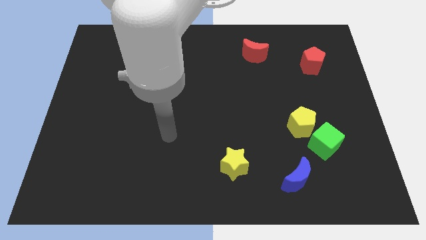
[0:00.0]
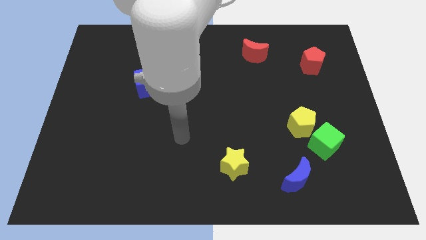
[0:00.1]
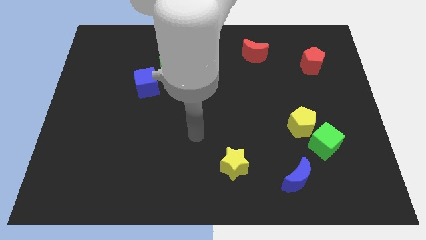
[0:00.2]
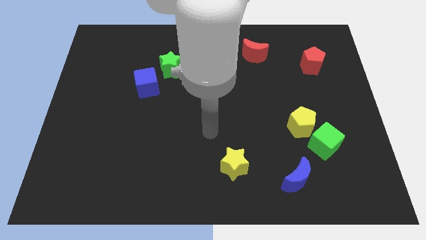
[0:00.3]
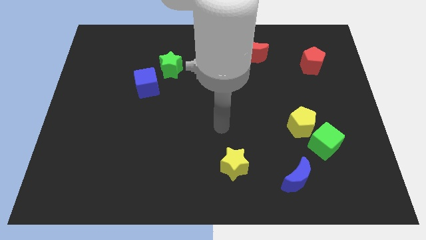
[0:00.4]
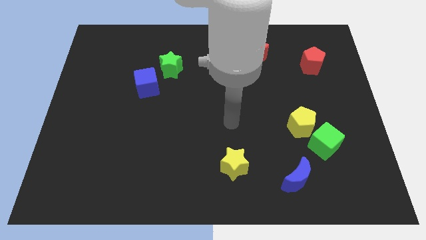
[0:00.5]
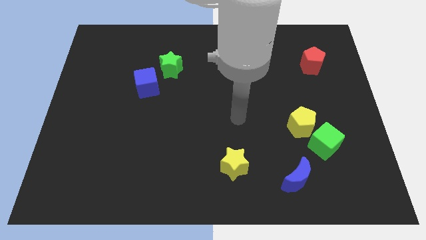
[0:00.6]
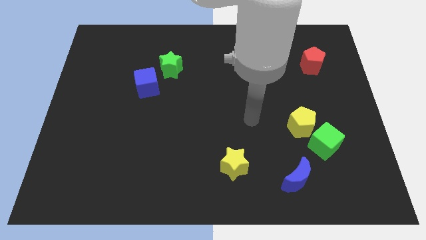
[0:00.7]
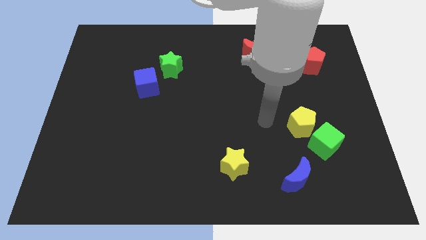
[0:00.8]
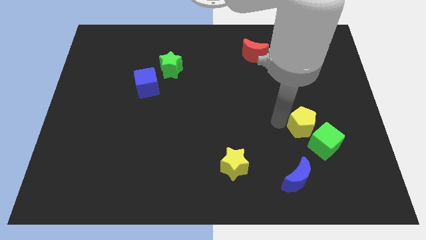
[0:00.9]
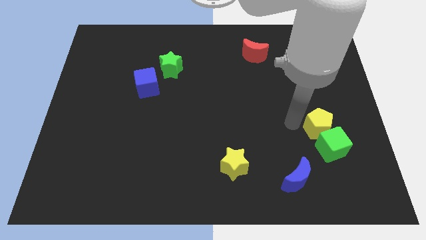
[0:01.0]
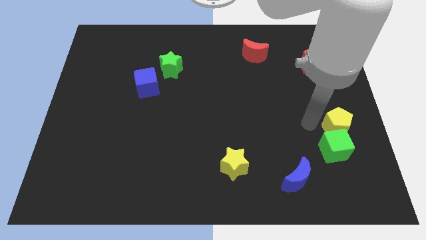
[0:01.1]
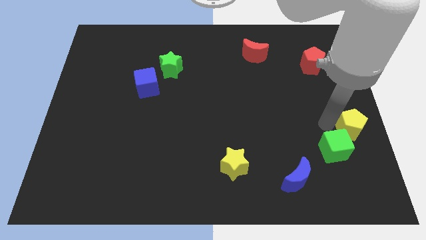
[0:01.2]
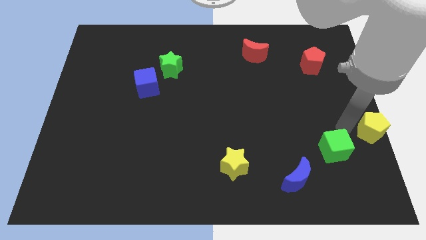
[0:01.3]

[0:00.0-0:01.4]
pull the green cube apart from the yellow pentagon

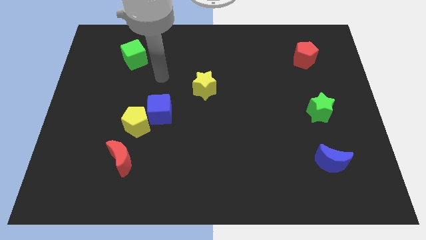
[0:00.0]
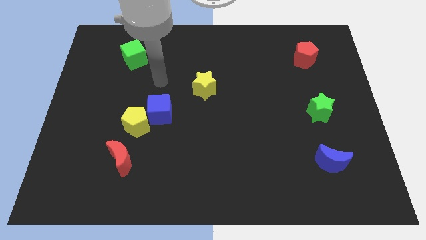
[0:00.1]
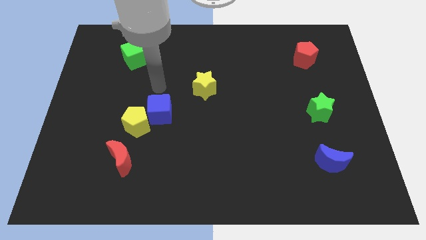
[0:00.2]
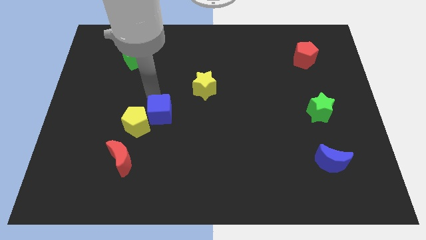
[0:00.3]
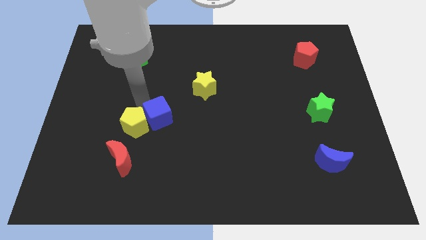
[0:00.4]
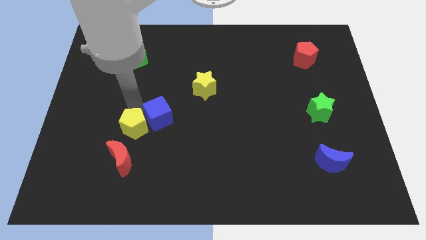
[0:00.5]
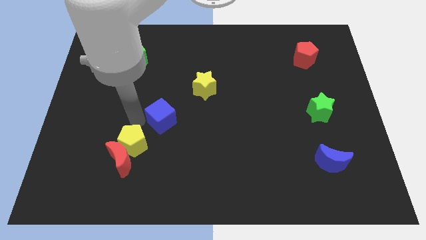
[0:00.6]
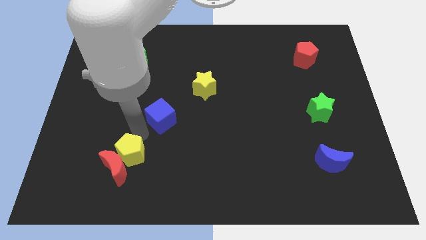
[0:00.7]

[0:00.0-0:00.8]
pull the blue cube apart from the yellow pentagon

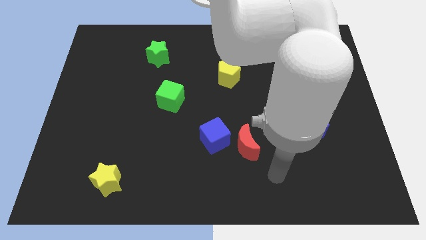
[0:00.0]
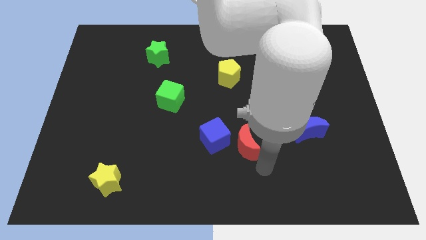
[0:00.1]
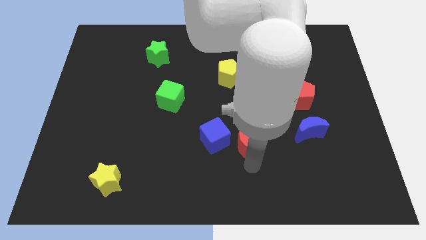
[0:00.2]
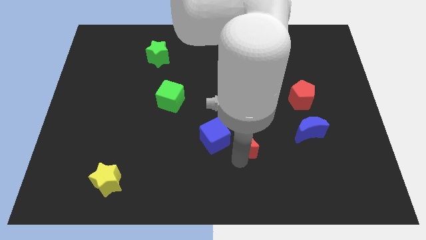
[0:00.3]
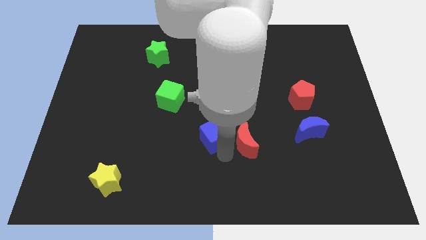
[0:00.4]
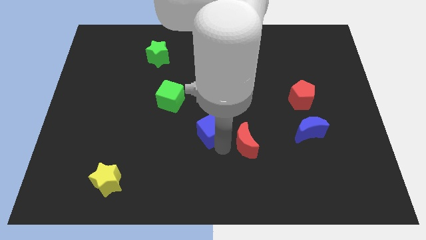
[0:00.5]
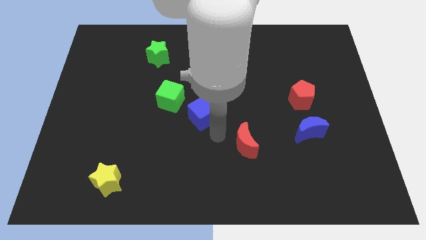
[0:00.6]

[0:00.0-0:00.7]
separate the red moon from the blue cube

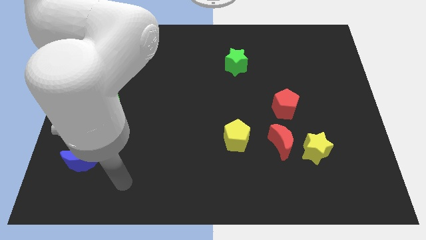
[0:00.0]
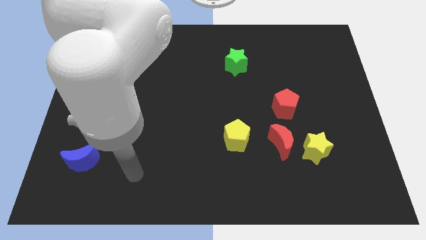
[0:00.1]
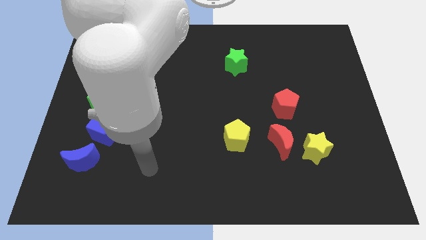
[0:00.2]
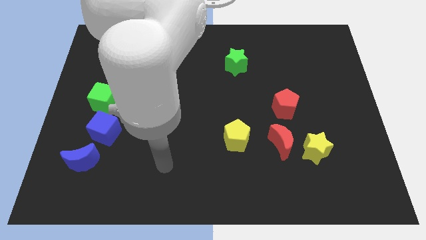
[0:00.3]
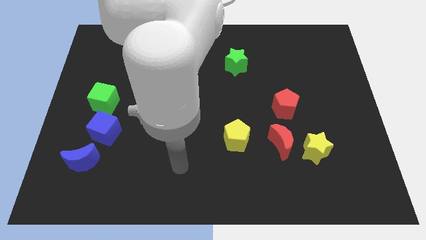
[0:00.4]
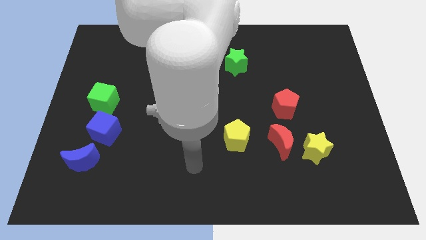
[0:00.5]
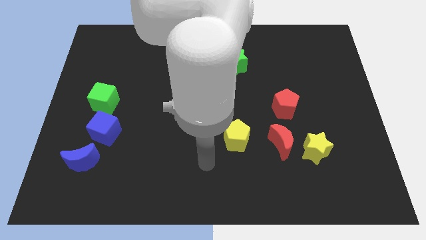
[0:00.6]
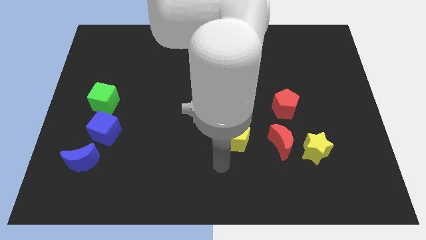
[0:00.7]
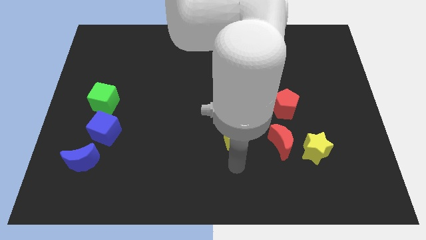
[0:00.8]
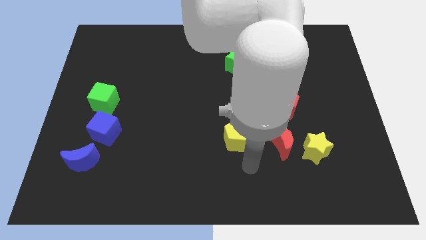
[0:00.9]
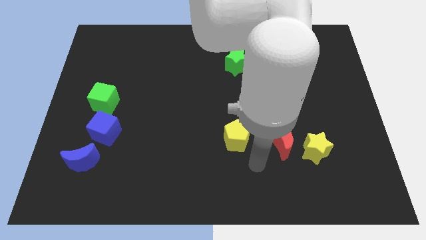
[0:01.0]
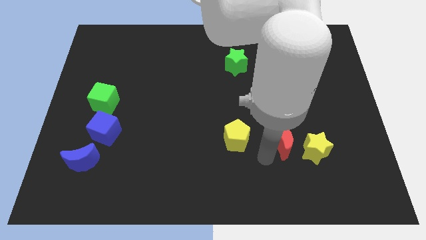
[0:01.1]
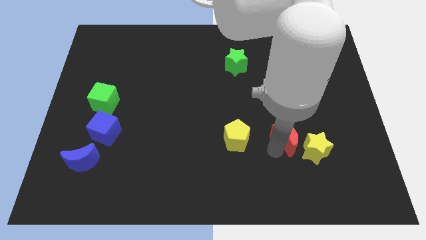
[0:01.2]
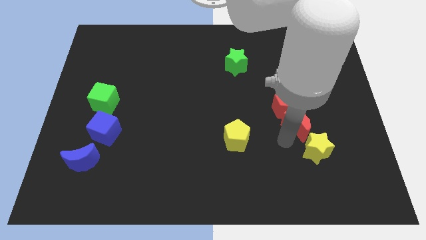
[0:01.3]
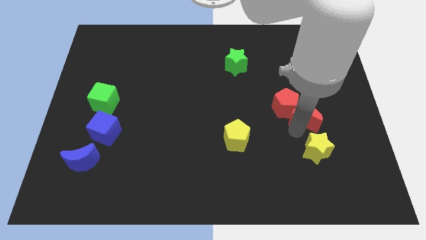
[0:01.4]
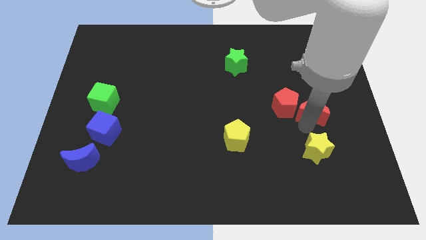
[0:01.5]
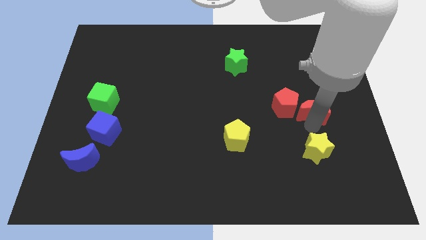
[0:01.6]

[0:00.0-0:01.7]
move the yellow star away from the red moon

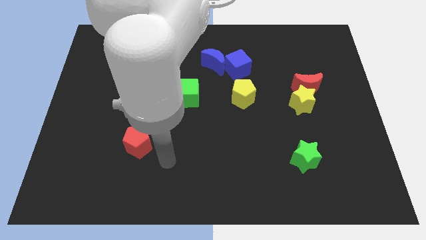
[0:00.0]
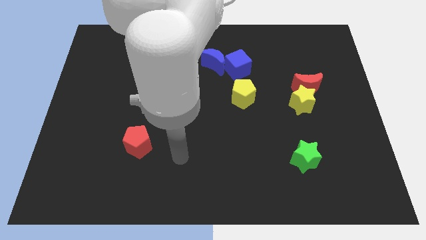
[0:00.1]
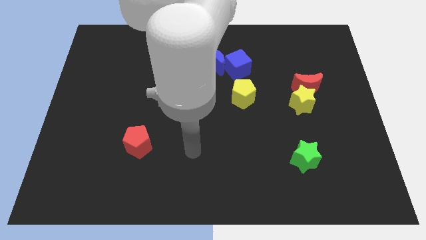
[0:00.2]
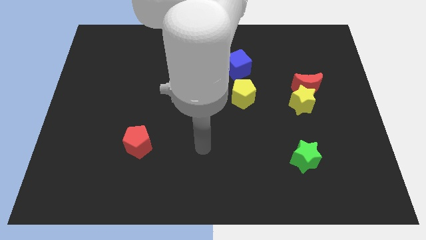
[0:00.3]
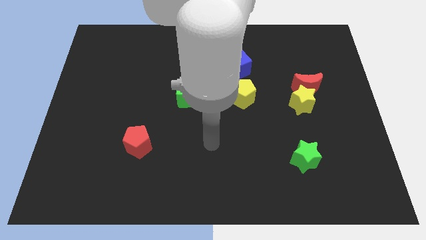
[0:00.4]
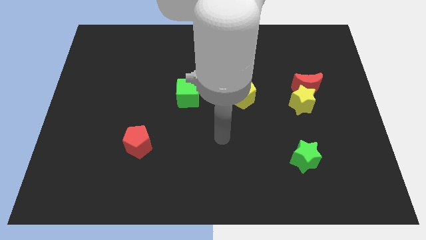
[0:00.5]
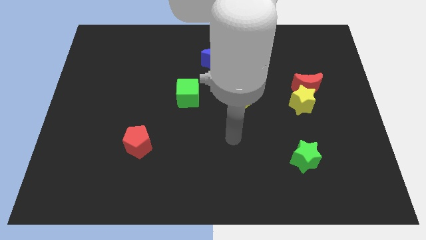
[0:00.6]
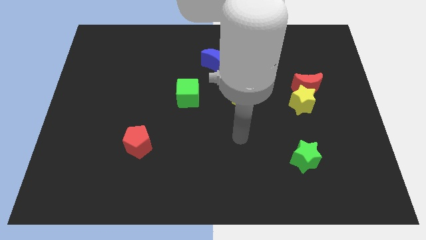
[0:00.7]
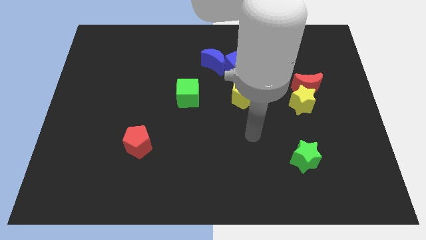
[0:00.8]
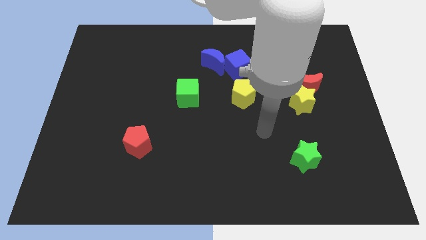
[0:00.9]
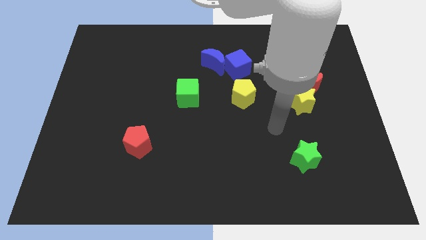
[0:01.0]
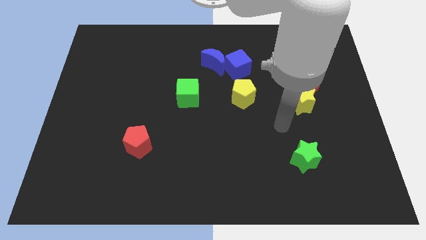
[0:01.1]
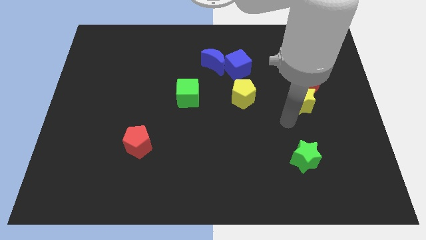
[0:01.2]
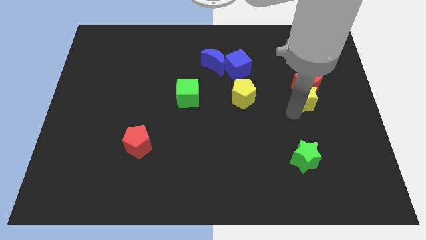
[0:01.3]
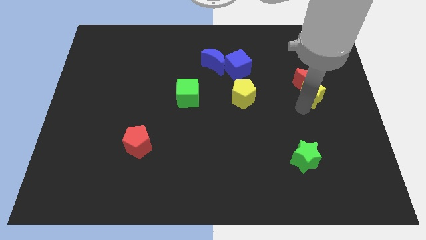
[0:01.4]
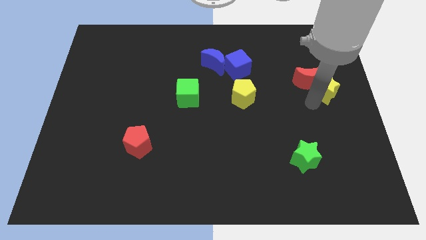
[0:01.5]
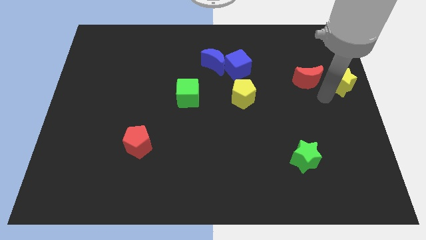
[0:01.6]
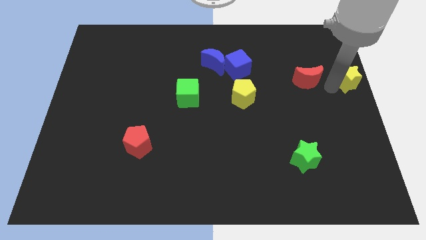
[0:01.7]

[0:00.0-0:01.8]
separate the red moon from the yellow star

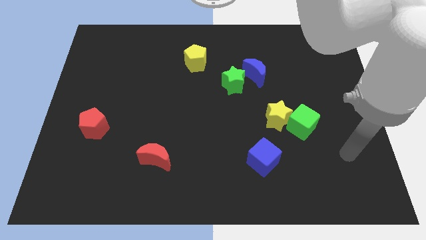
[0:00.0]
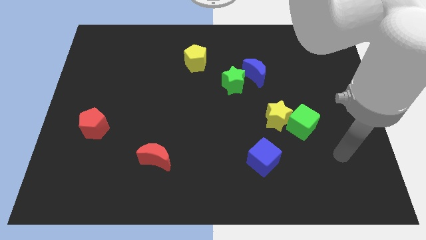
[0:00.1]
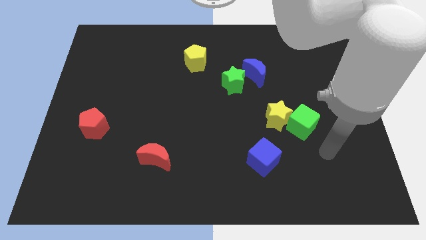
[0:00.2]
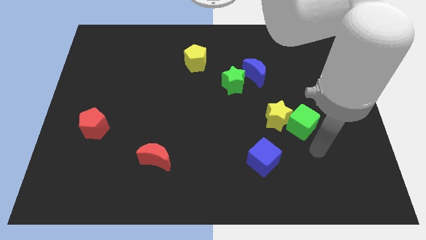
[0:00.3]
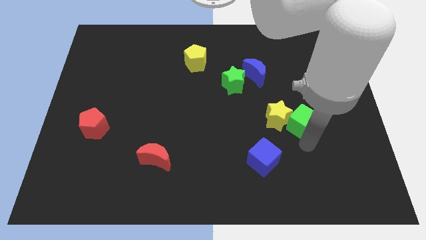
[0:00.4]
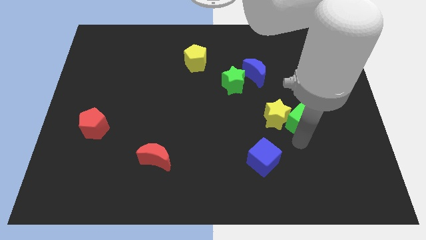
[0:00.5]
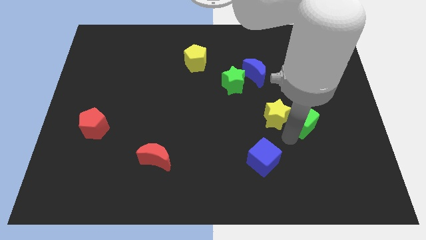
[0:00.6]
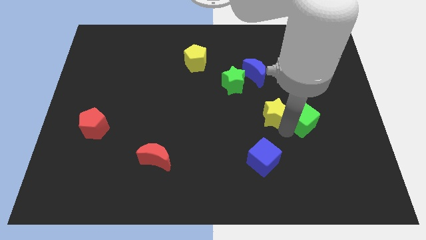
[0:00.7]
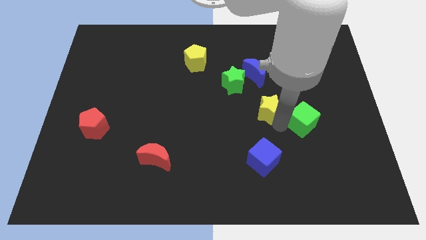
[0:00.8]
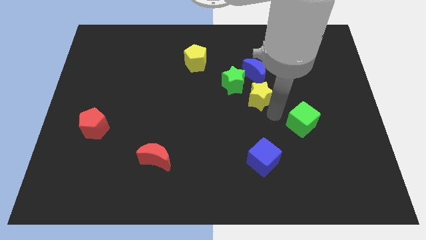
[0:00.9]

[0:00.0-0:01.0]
move the green cube away from the yellow star

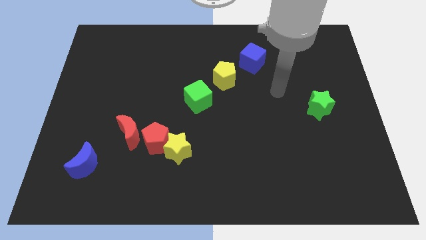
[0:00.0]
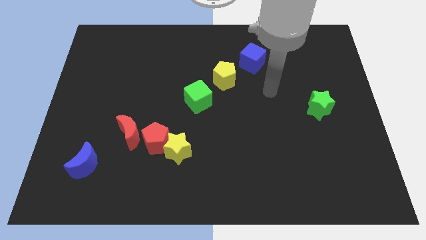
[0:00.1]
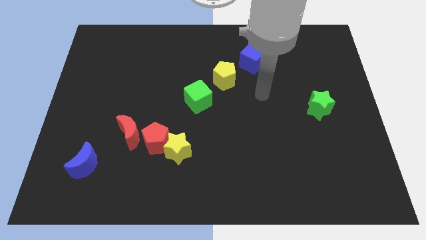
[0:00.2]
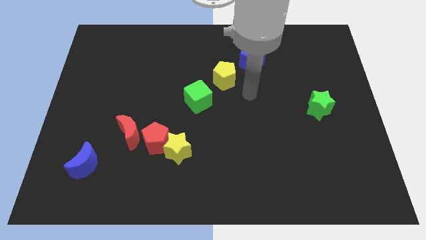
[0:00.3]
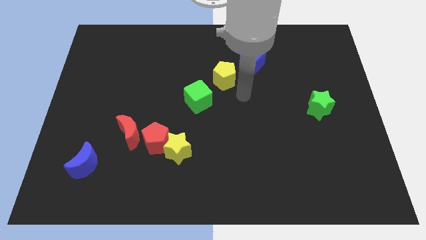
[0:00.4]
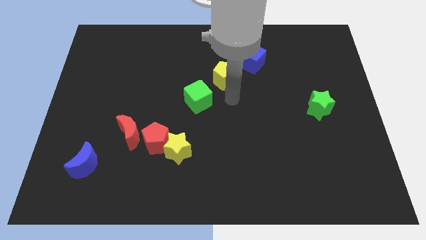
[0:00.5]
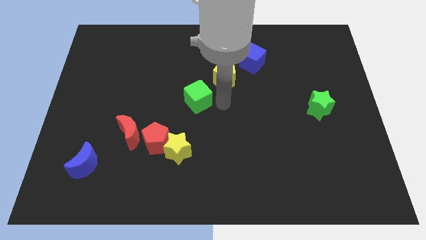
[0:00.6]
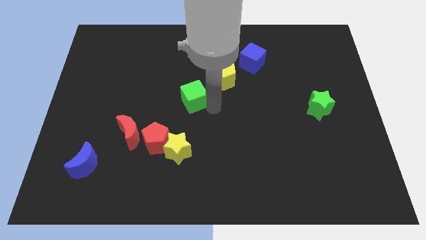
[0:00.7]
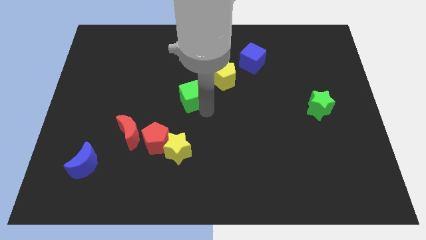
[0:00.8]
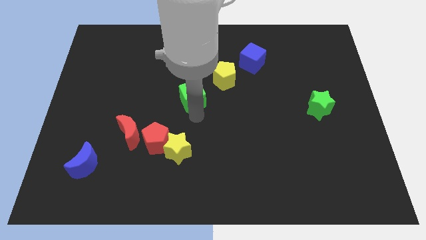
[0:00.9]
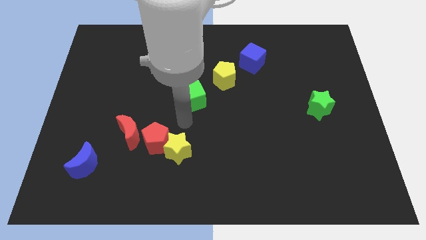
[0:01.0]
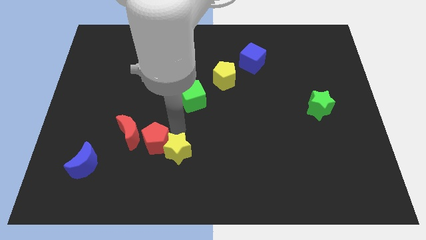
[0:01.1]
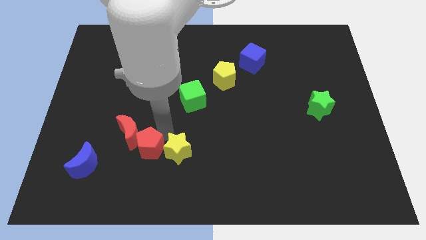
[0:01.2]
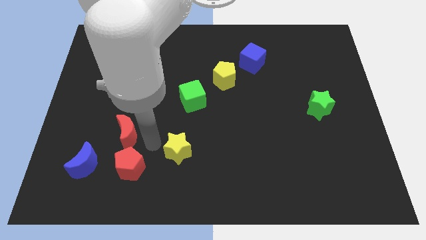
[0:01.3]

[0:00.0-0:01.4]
move the yellow star away from the red pentagon

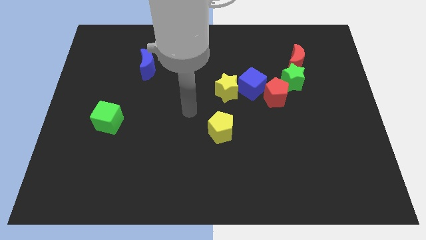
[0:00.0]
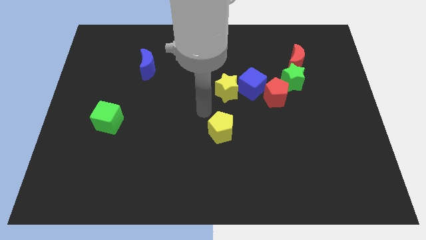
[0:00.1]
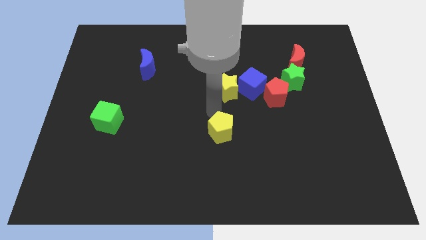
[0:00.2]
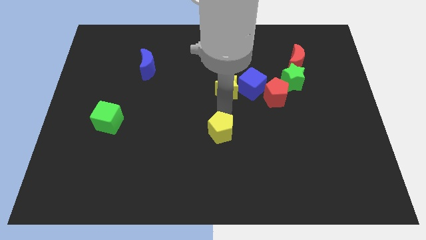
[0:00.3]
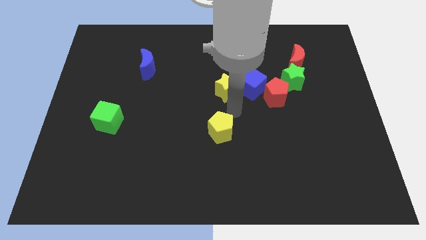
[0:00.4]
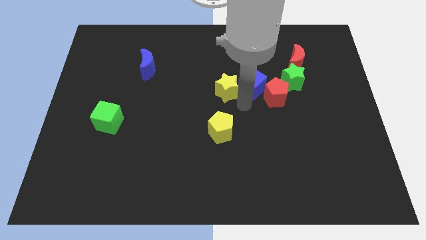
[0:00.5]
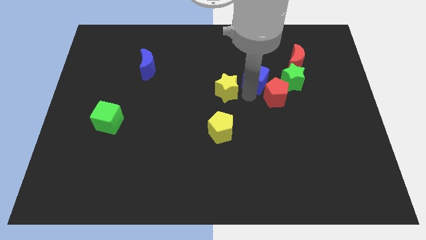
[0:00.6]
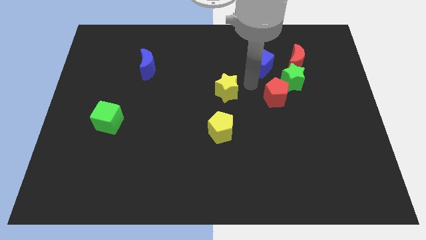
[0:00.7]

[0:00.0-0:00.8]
separate the yellow star from the blue cube
